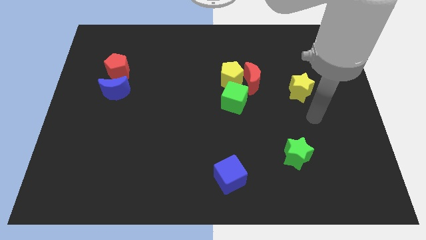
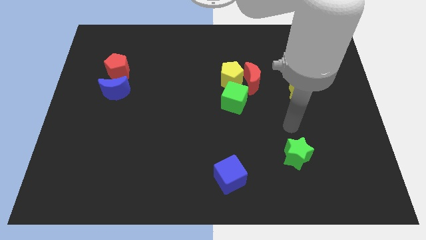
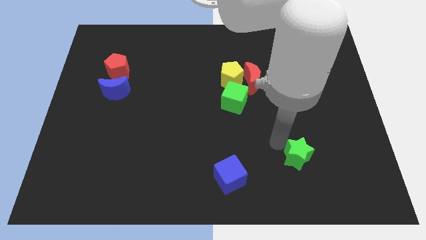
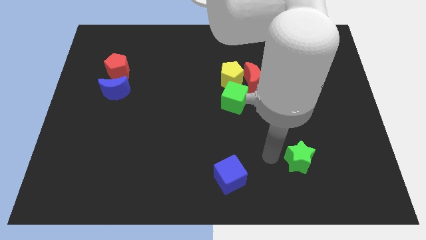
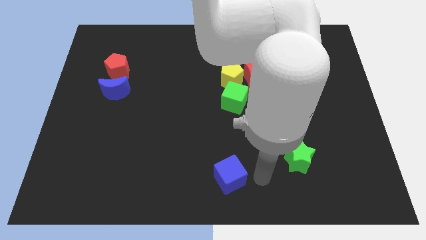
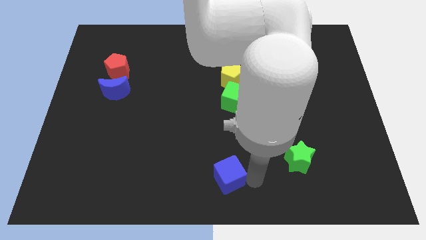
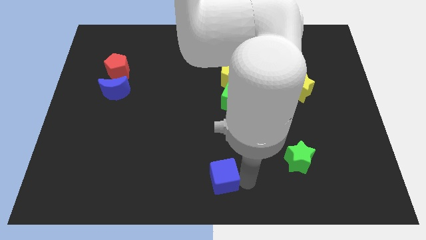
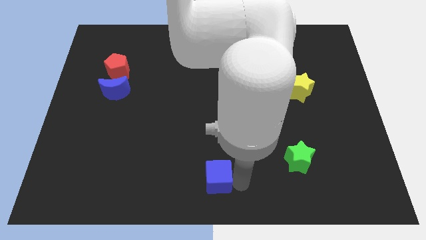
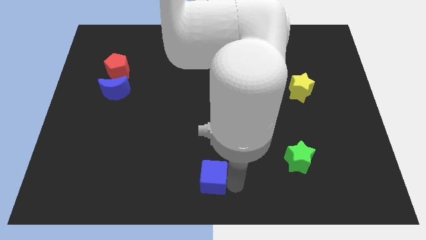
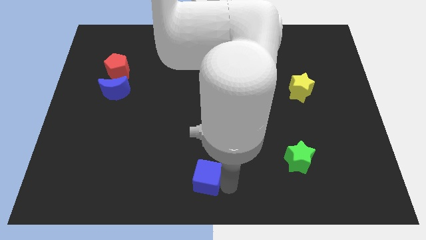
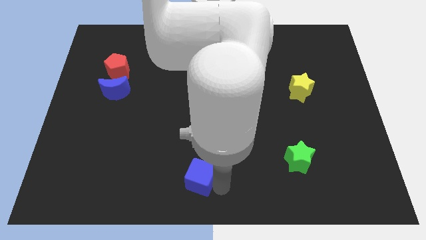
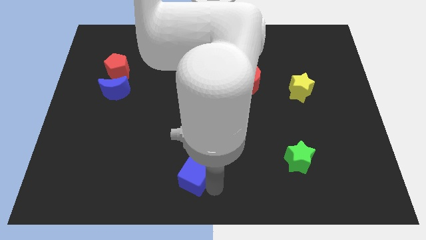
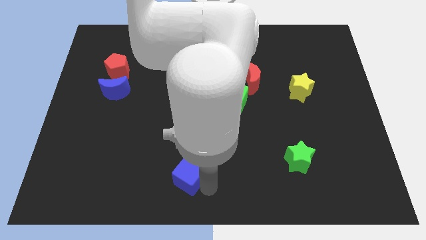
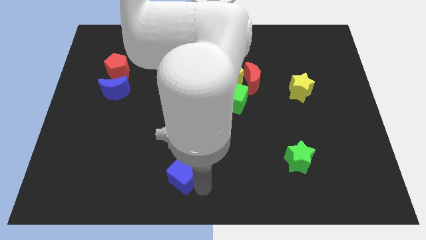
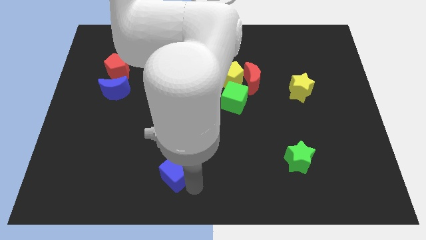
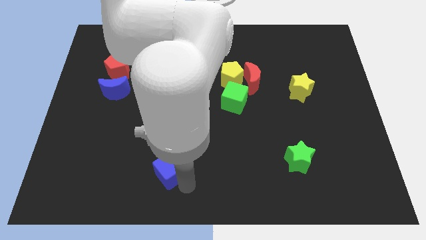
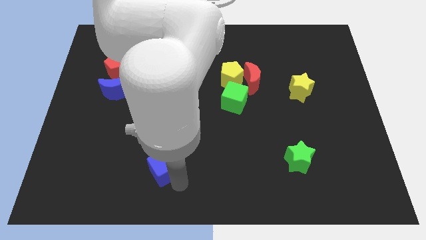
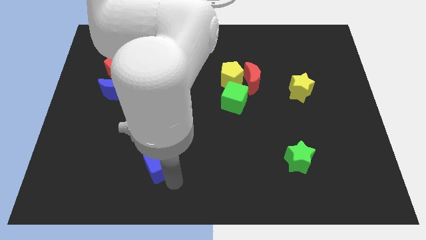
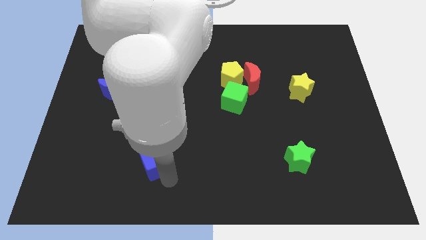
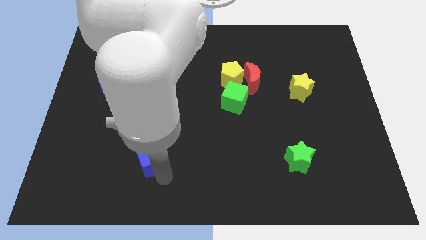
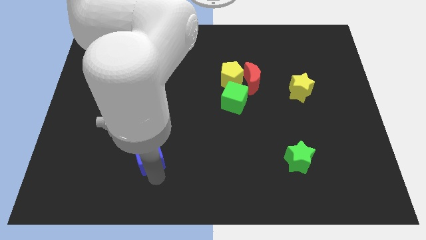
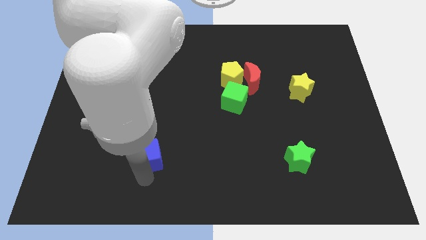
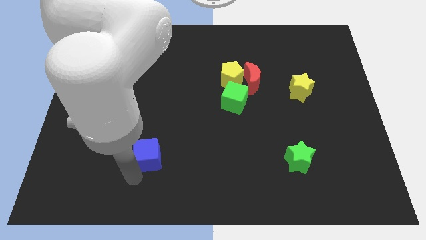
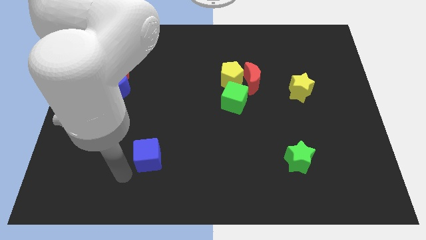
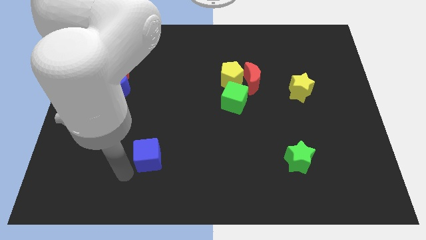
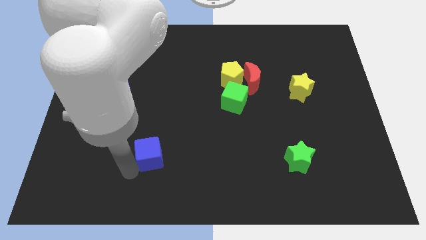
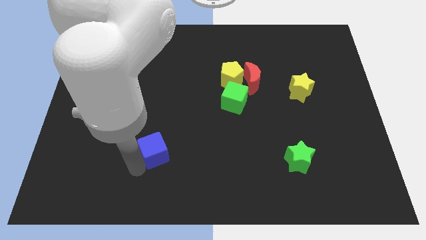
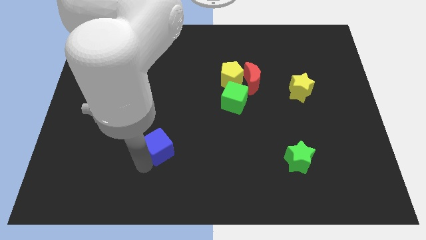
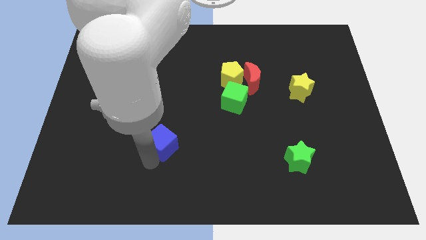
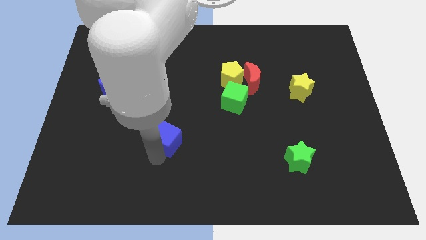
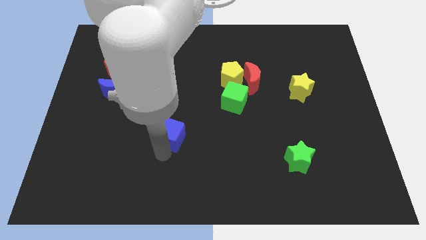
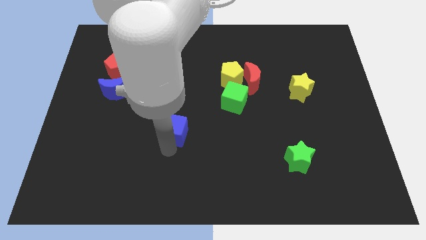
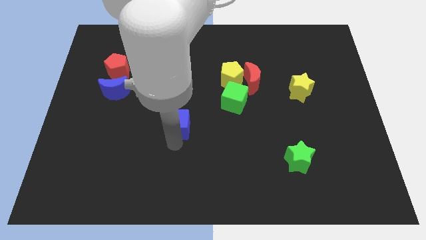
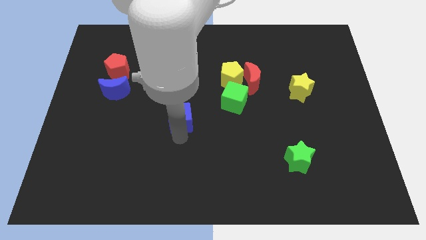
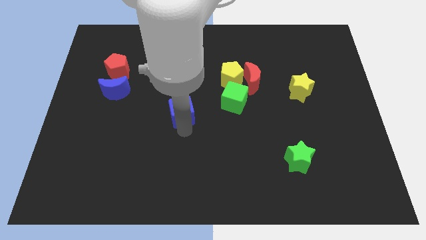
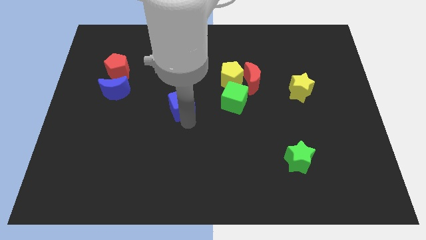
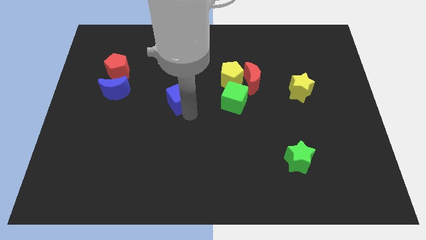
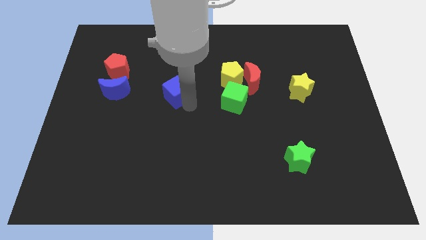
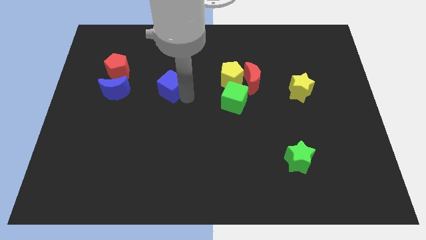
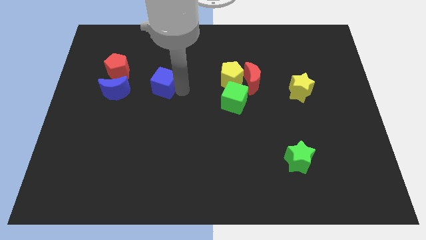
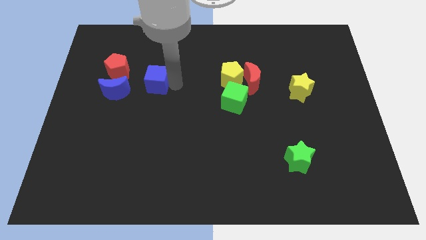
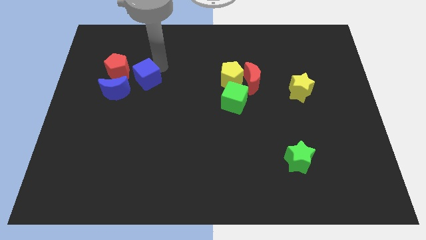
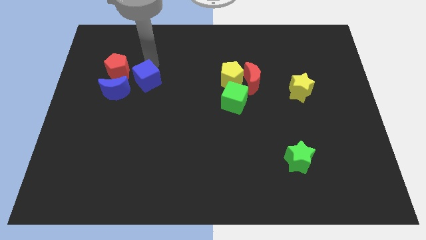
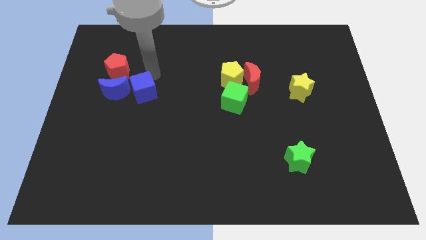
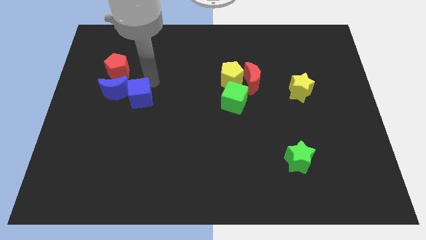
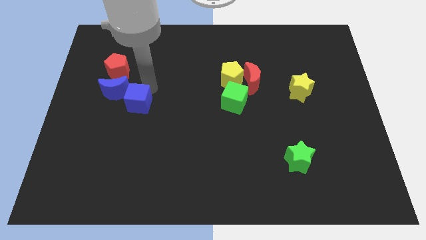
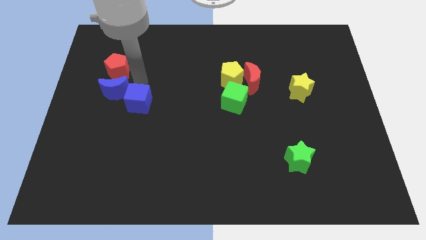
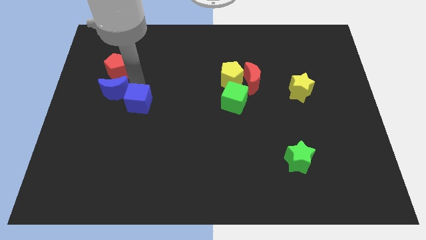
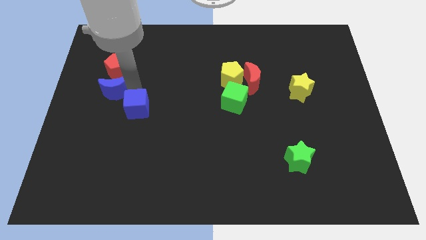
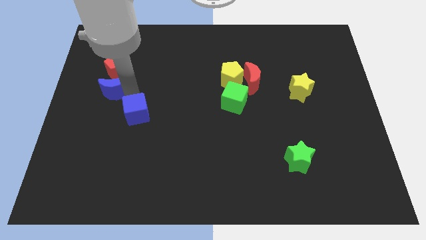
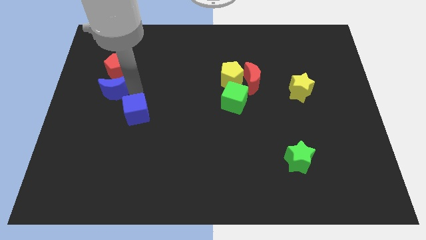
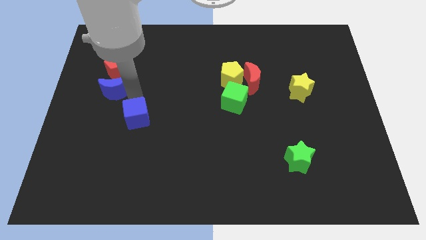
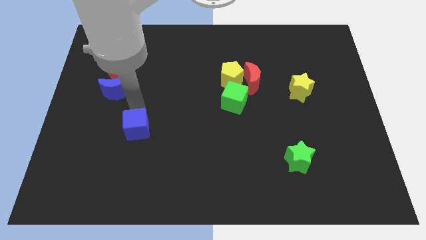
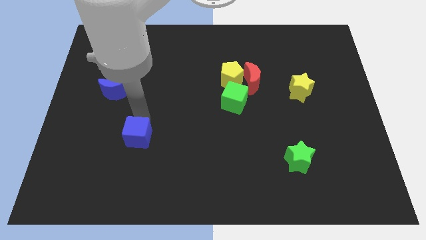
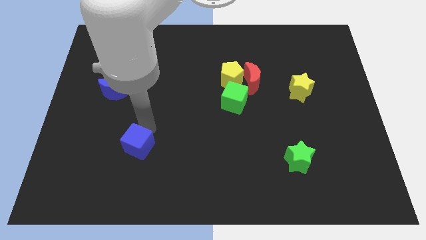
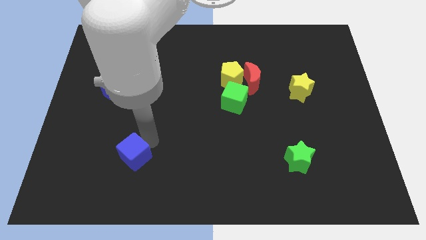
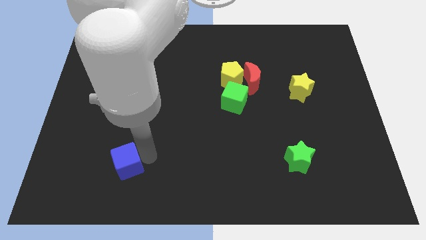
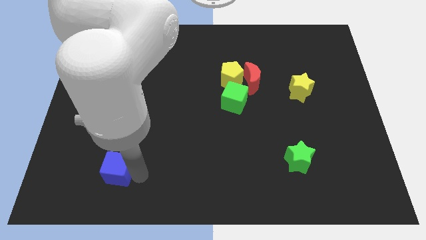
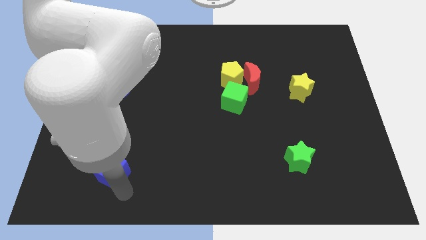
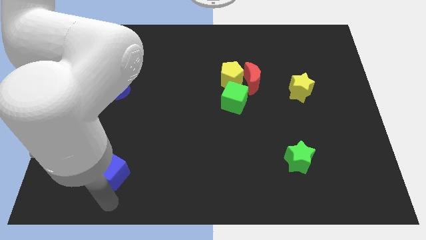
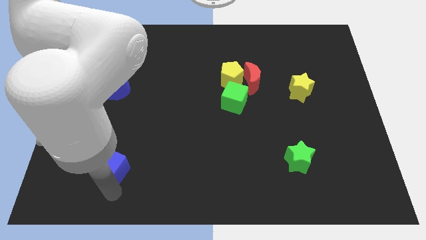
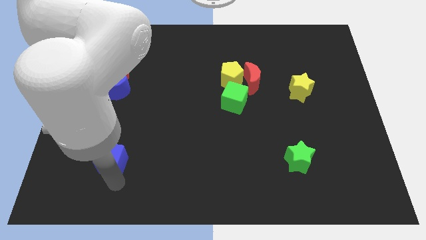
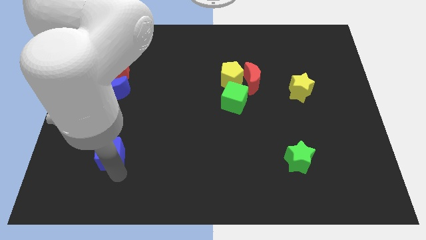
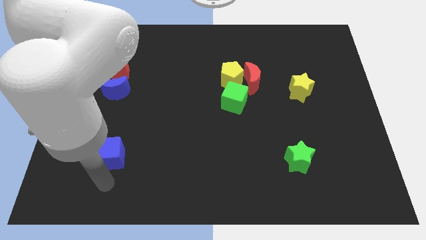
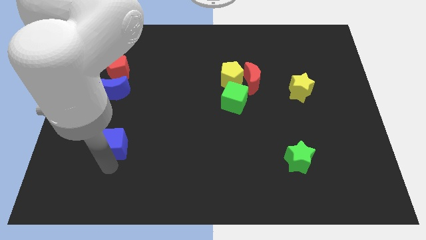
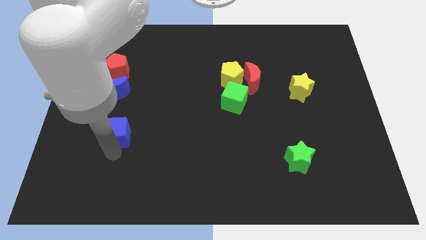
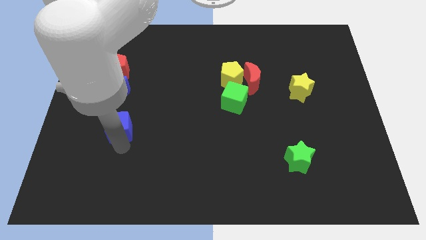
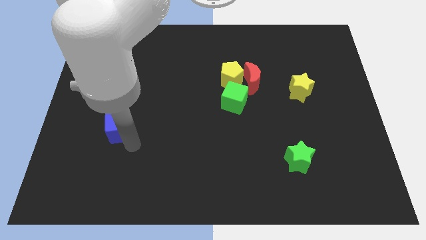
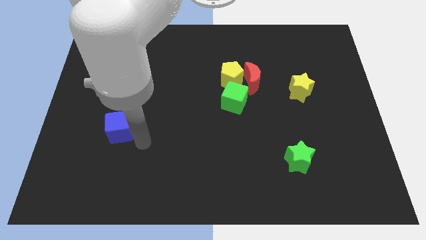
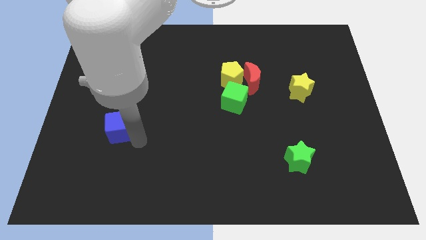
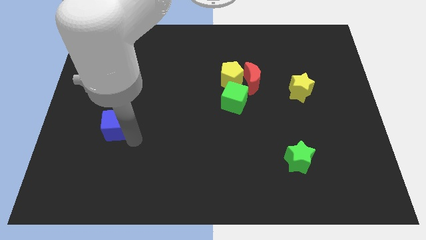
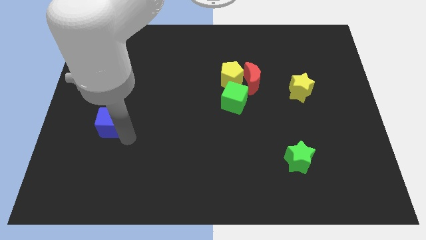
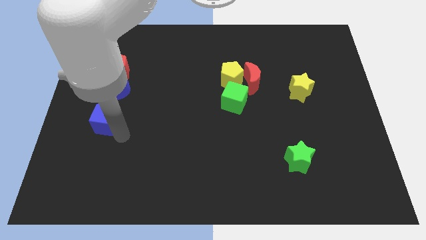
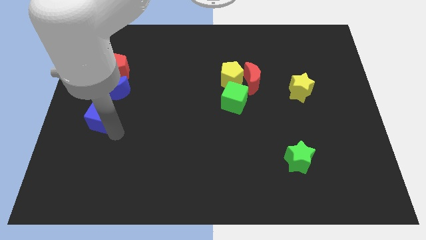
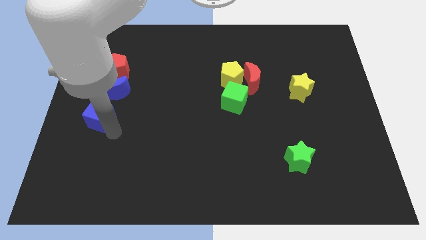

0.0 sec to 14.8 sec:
push the blue cube to the left side
